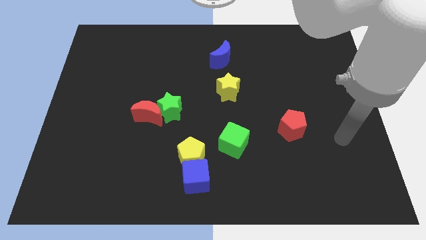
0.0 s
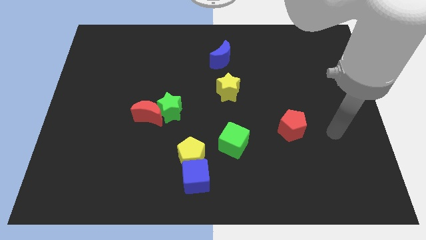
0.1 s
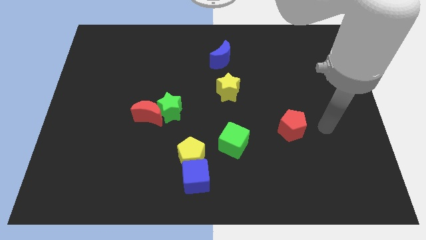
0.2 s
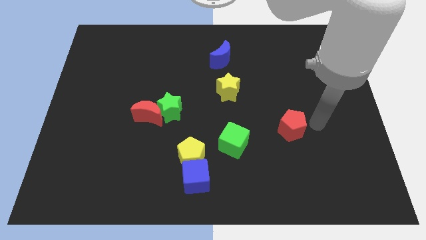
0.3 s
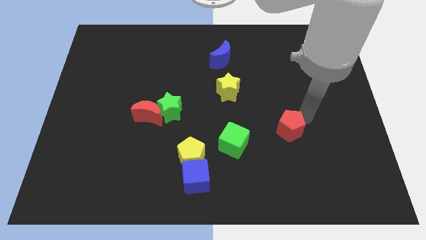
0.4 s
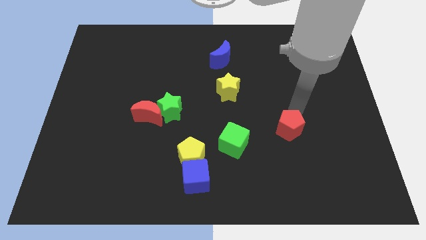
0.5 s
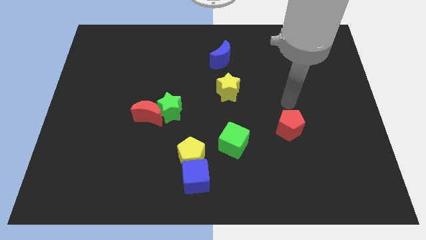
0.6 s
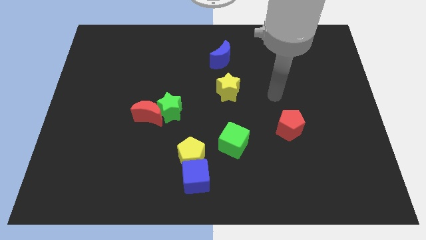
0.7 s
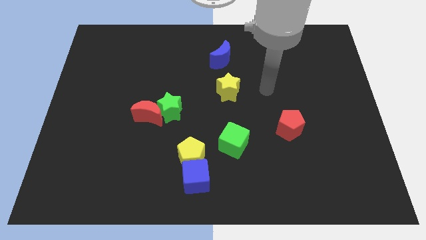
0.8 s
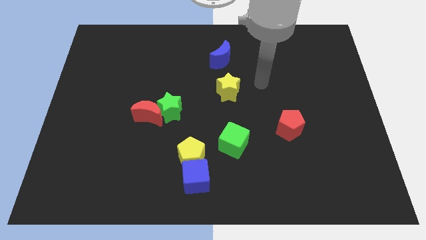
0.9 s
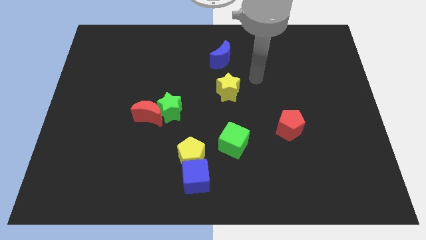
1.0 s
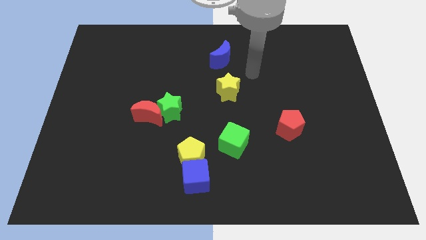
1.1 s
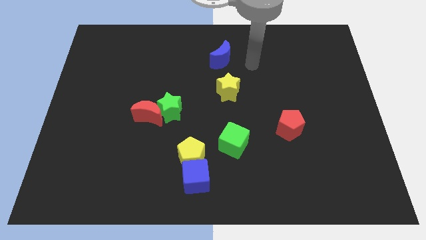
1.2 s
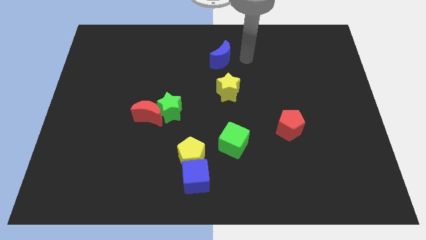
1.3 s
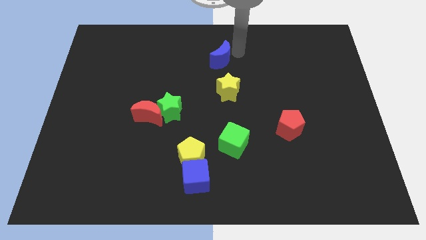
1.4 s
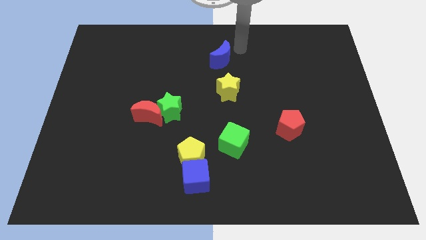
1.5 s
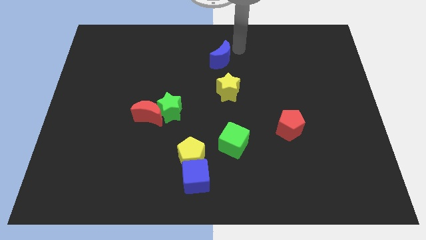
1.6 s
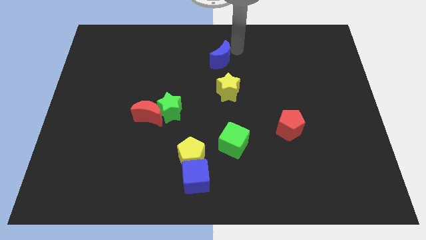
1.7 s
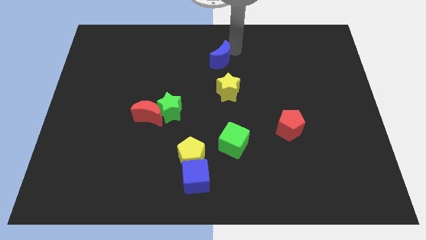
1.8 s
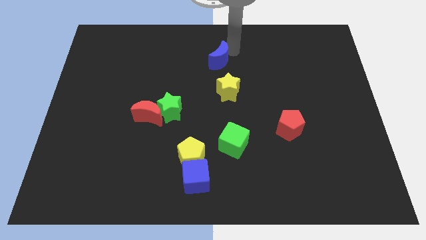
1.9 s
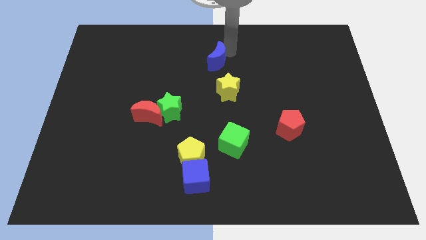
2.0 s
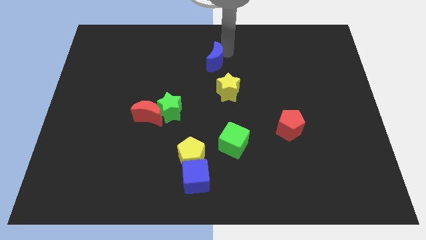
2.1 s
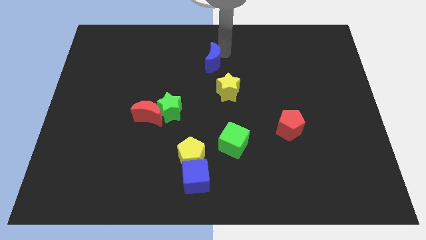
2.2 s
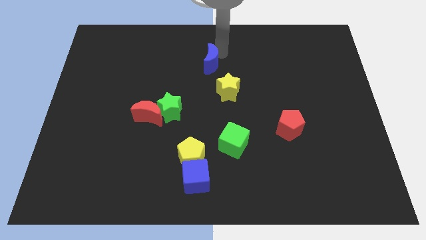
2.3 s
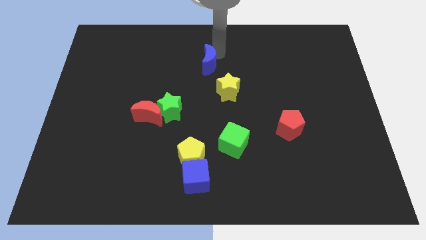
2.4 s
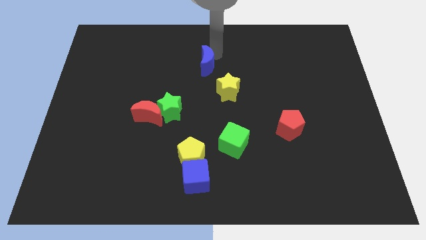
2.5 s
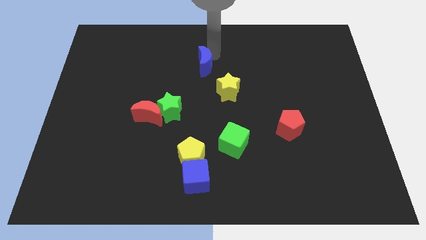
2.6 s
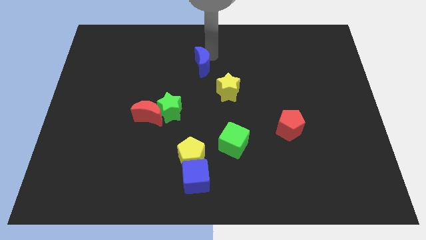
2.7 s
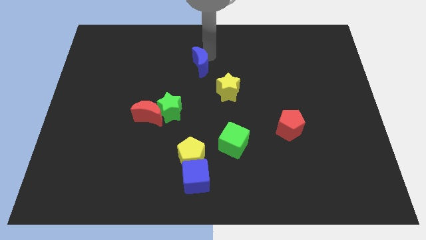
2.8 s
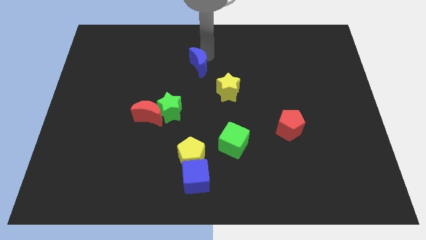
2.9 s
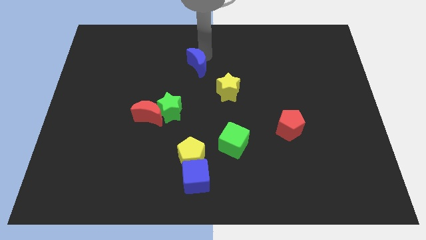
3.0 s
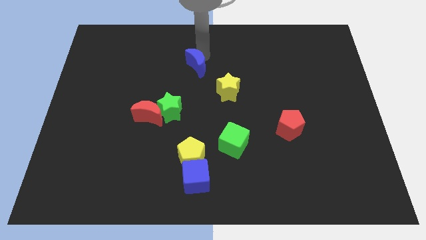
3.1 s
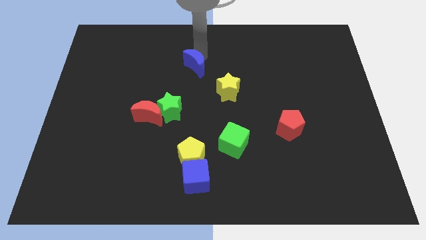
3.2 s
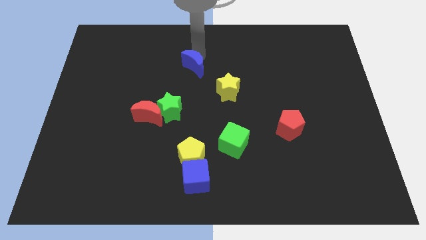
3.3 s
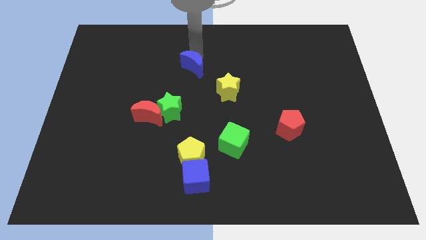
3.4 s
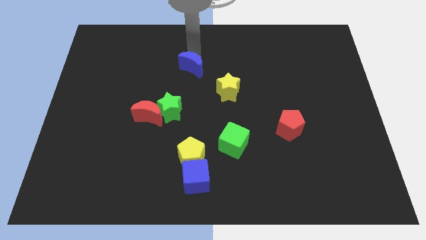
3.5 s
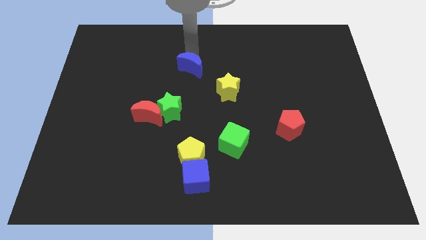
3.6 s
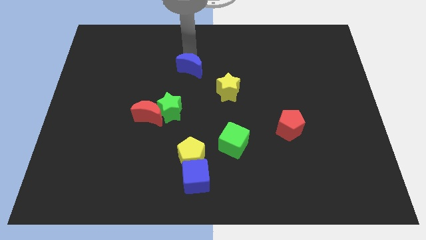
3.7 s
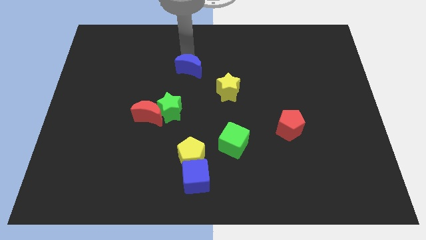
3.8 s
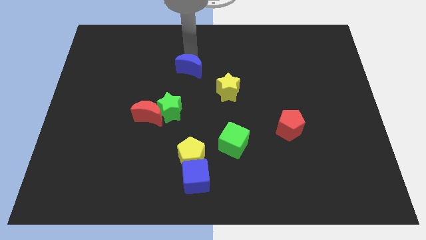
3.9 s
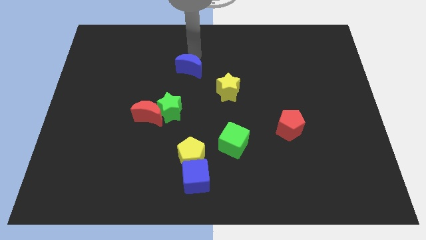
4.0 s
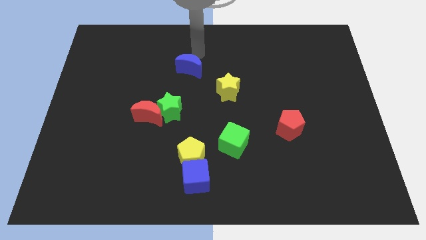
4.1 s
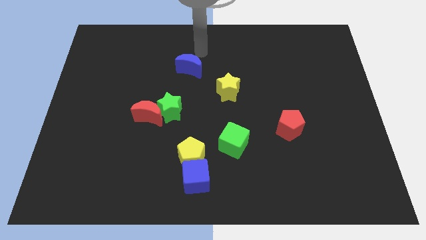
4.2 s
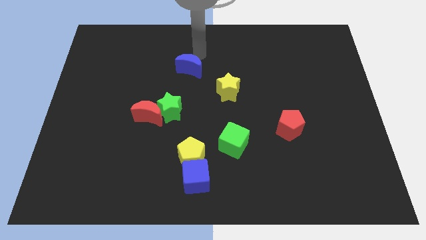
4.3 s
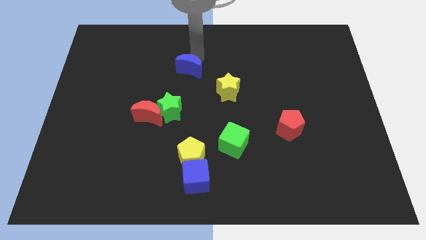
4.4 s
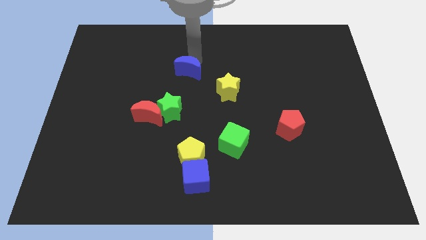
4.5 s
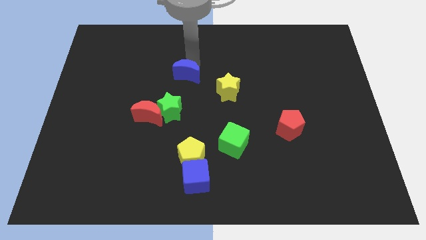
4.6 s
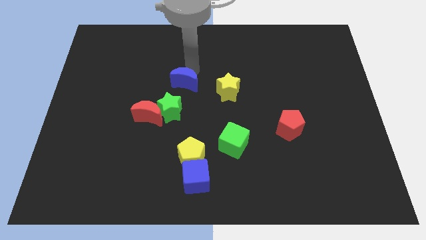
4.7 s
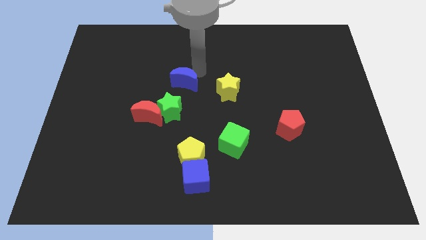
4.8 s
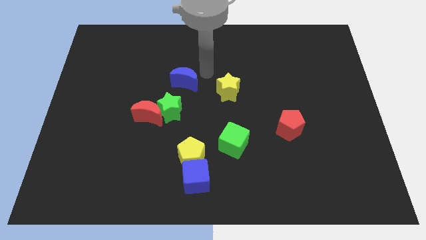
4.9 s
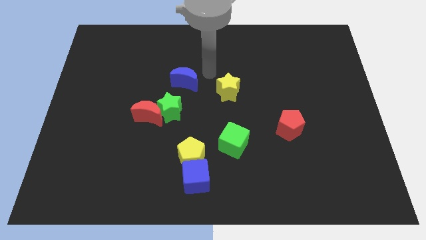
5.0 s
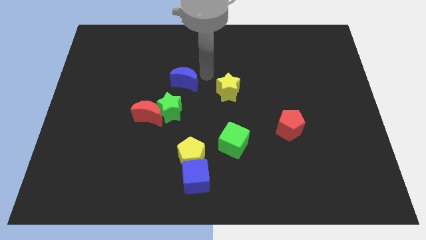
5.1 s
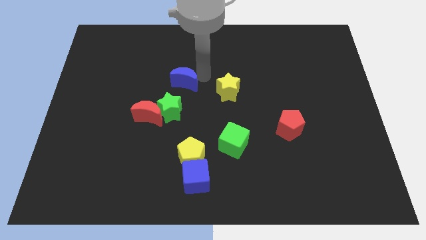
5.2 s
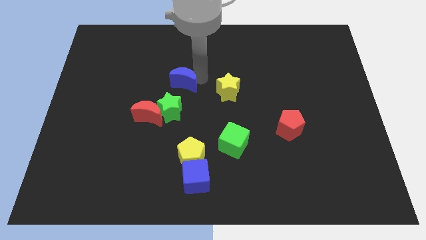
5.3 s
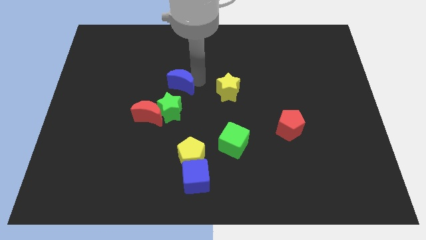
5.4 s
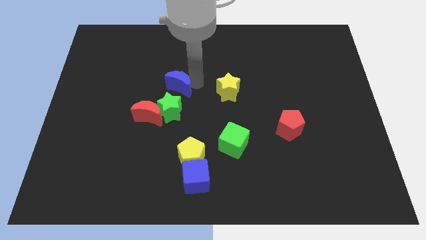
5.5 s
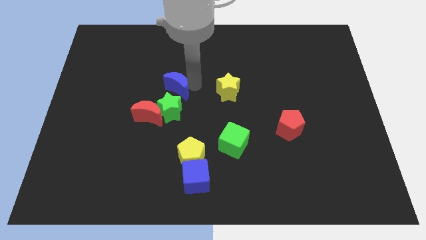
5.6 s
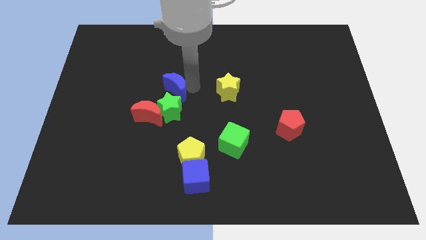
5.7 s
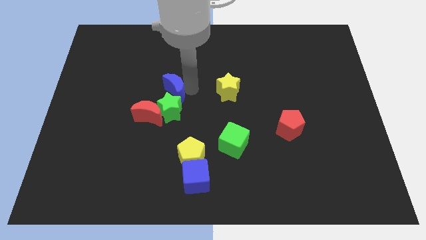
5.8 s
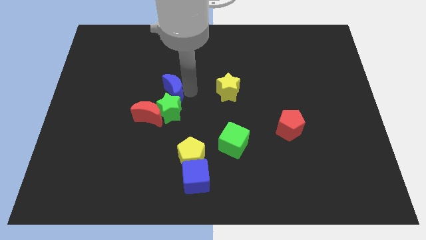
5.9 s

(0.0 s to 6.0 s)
push the blue moon to the top left side of the green star

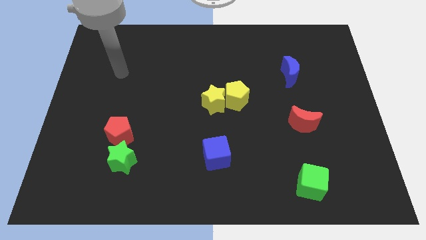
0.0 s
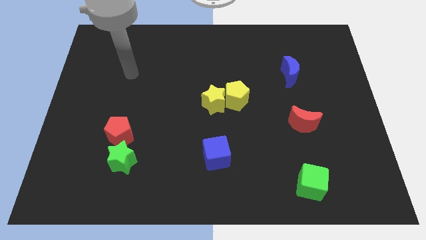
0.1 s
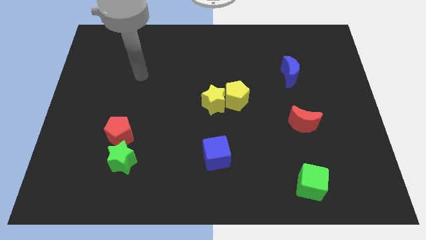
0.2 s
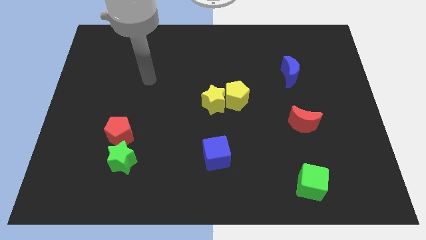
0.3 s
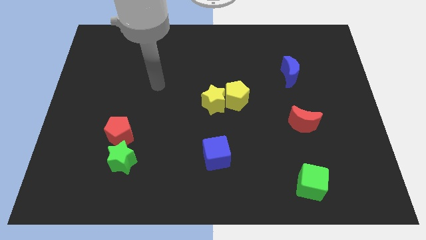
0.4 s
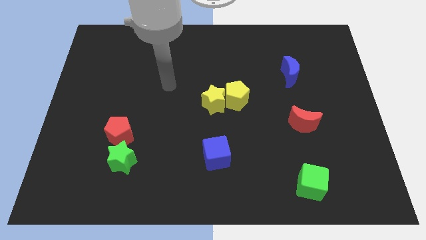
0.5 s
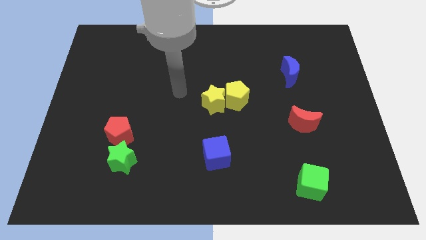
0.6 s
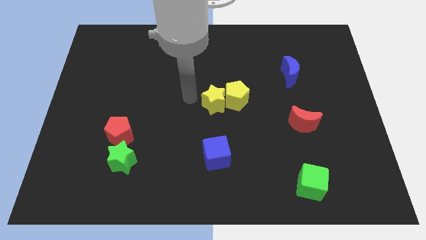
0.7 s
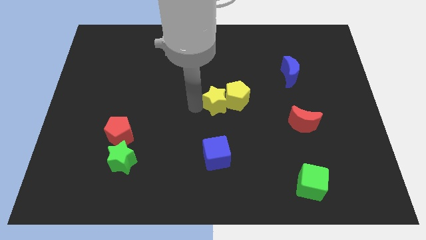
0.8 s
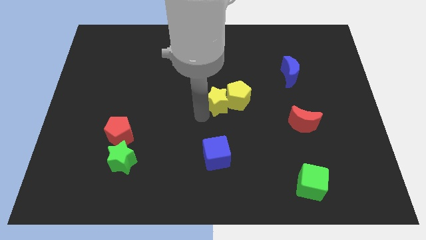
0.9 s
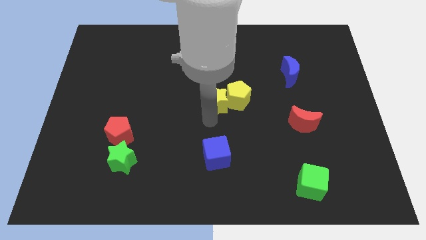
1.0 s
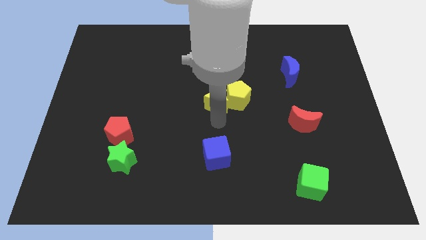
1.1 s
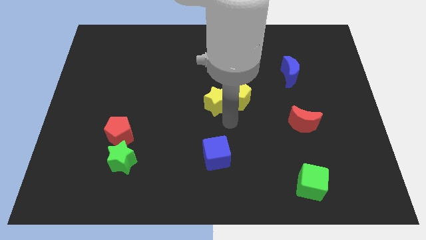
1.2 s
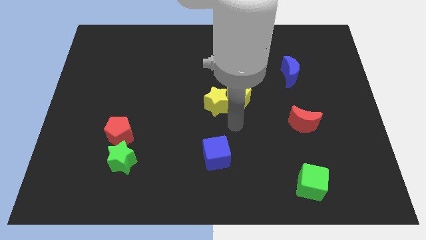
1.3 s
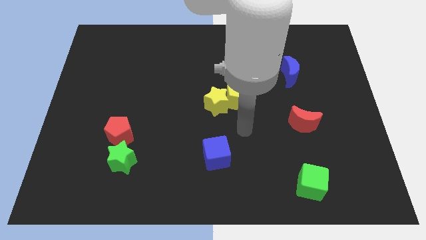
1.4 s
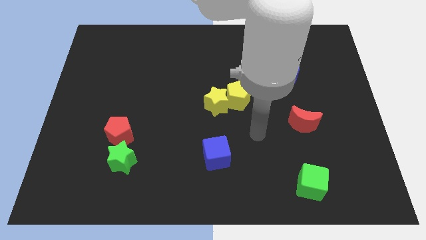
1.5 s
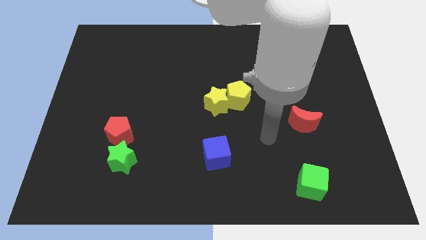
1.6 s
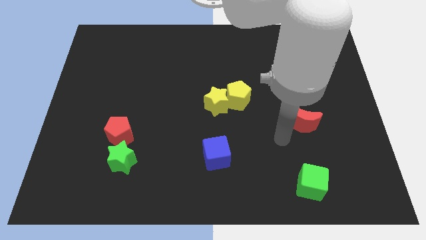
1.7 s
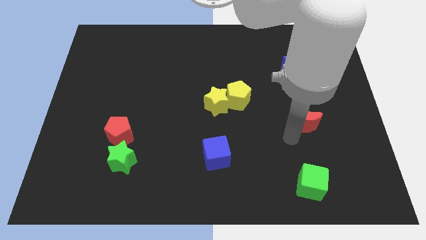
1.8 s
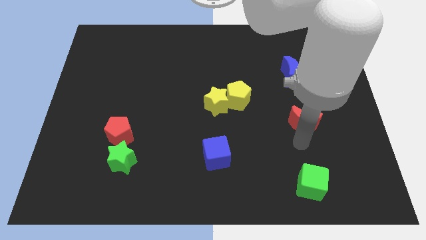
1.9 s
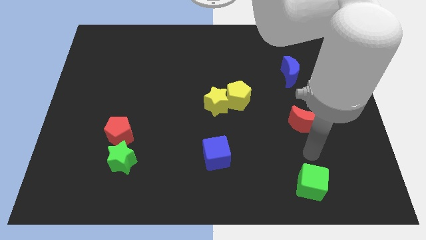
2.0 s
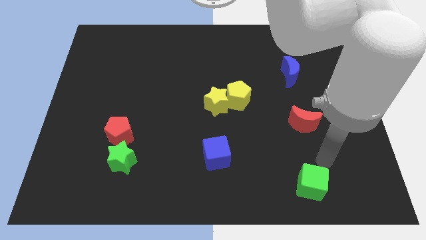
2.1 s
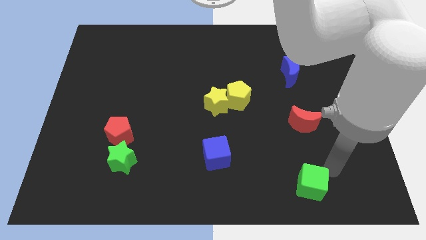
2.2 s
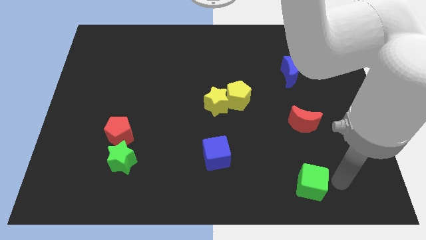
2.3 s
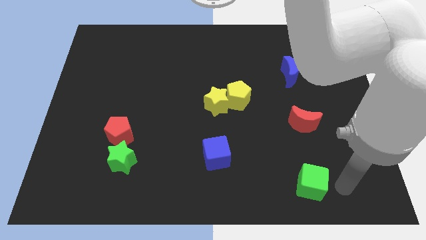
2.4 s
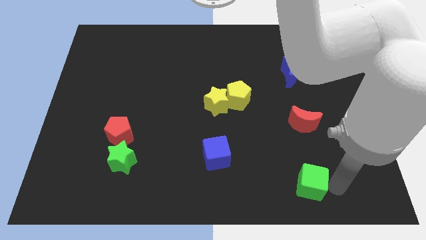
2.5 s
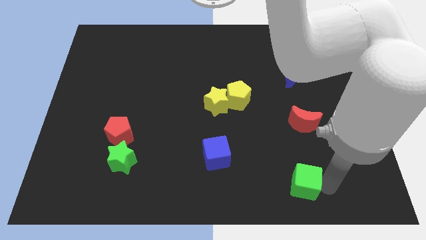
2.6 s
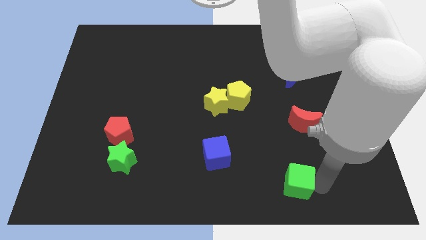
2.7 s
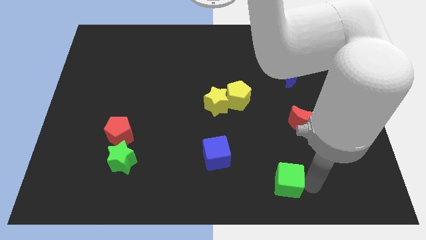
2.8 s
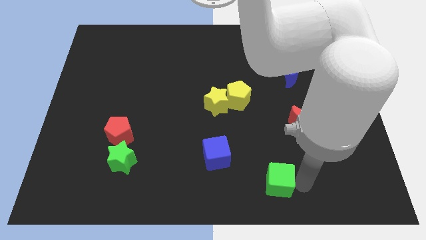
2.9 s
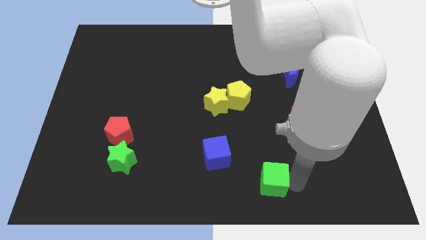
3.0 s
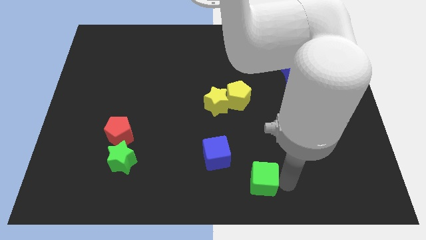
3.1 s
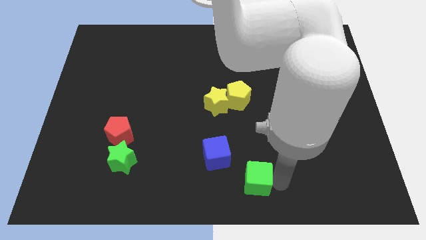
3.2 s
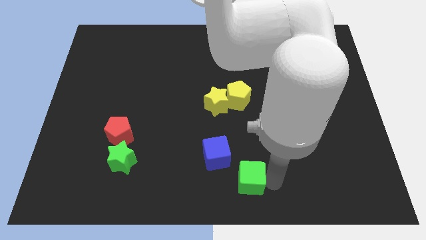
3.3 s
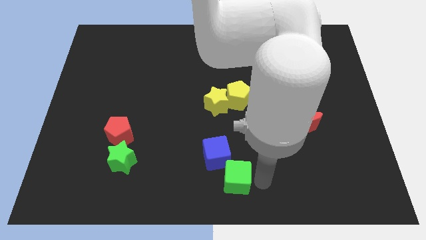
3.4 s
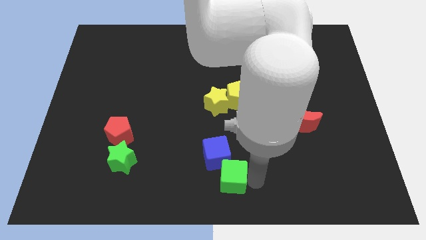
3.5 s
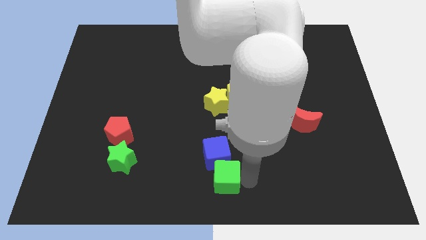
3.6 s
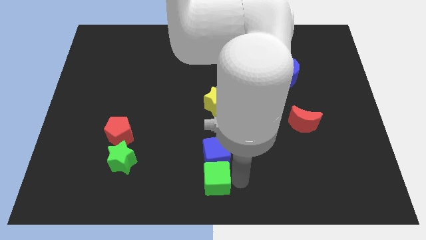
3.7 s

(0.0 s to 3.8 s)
push the green cube diagonally down and to the left of the blue cube
